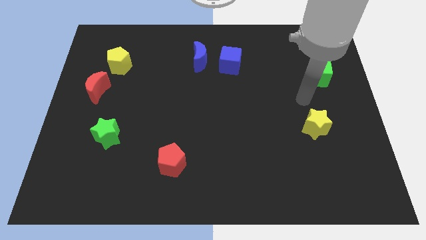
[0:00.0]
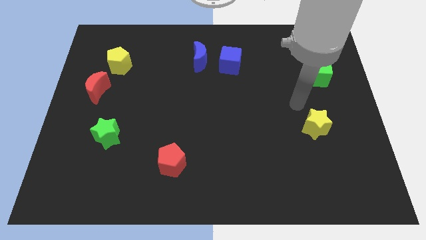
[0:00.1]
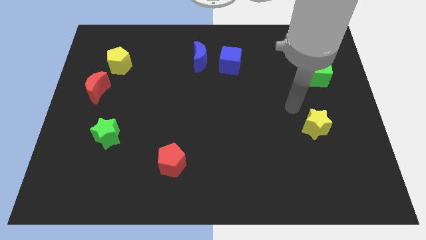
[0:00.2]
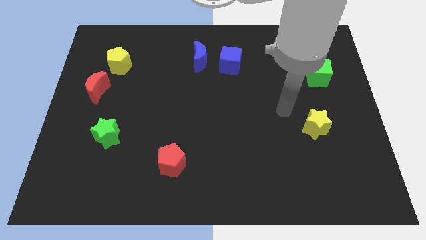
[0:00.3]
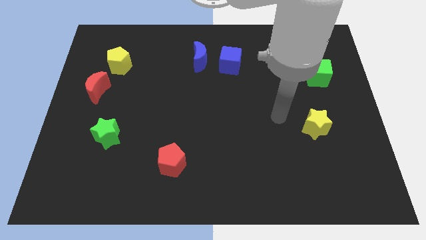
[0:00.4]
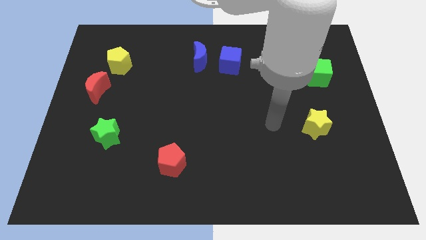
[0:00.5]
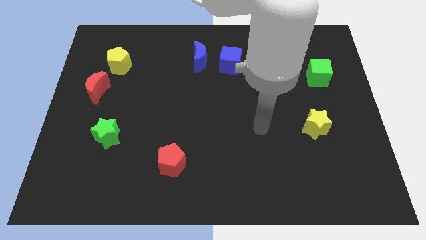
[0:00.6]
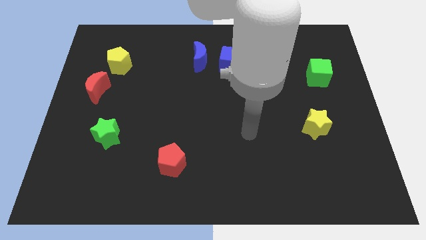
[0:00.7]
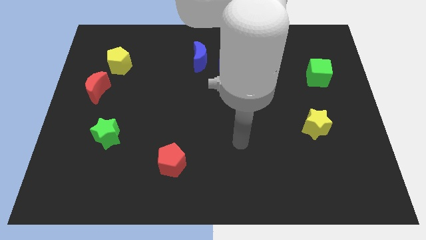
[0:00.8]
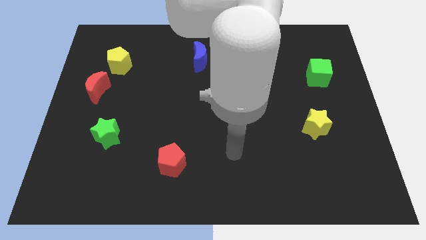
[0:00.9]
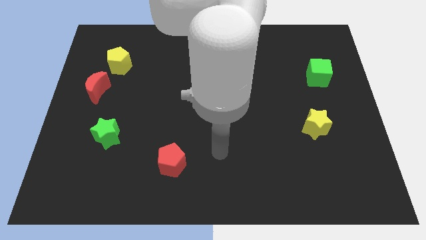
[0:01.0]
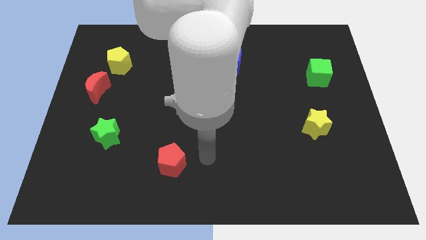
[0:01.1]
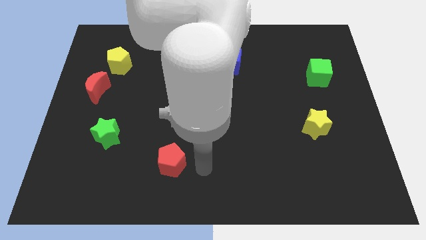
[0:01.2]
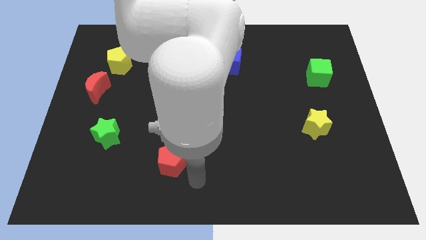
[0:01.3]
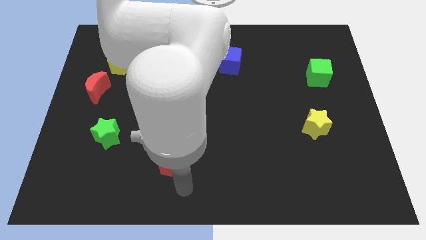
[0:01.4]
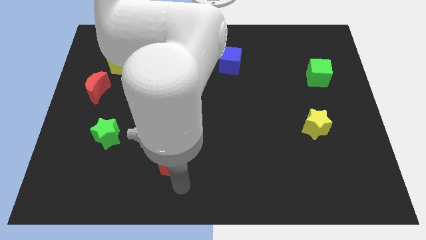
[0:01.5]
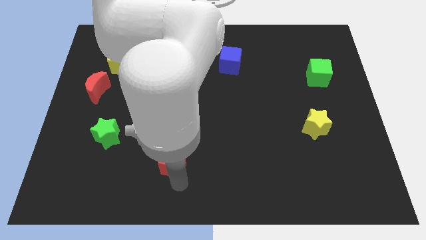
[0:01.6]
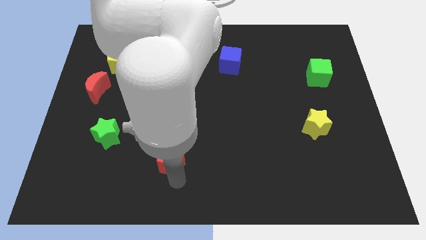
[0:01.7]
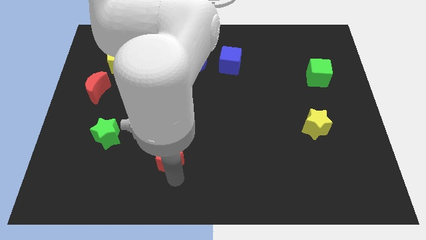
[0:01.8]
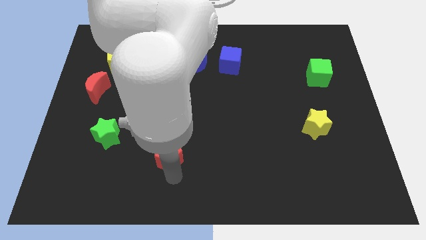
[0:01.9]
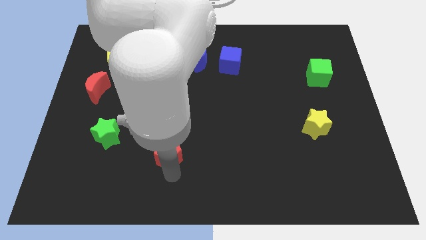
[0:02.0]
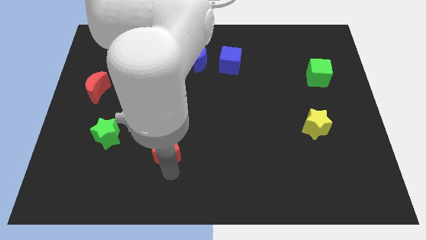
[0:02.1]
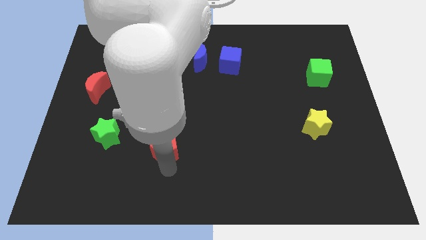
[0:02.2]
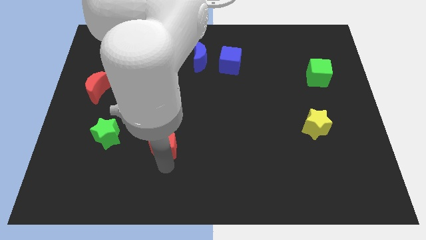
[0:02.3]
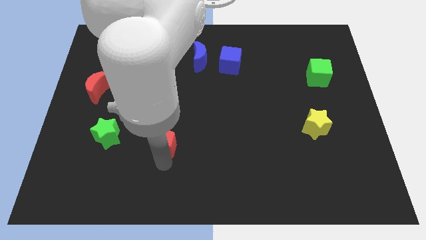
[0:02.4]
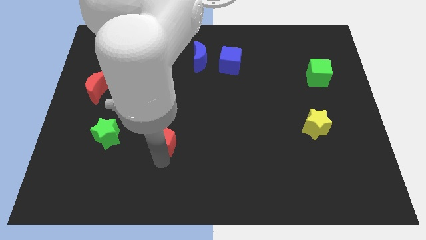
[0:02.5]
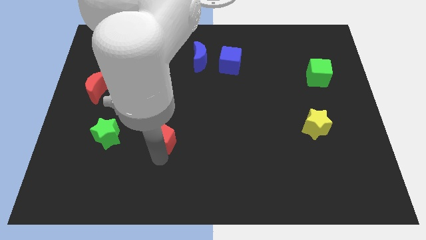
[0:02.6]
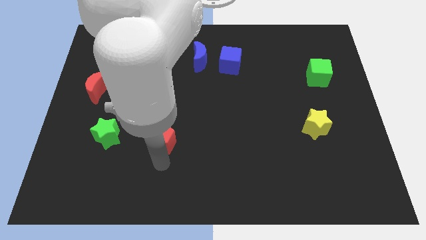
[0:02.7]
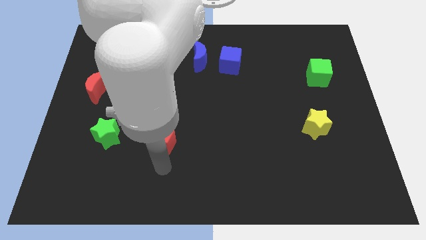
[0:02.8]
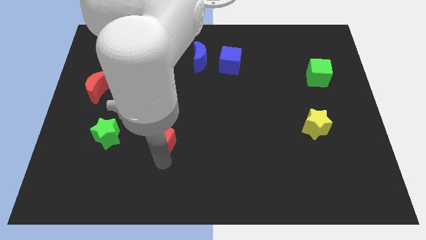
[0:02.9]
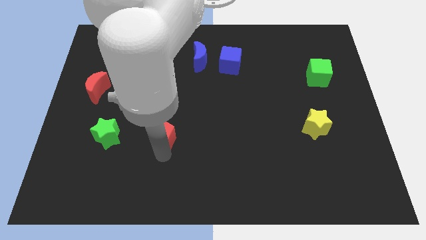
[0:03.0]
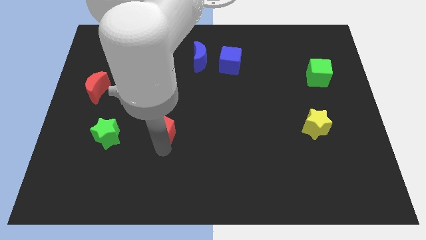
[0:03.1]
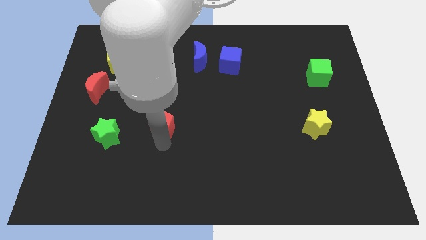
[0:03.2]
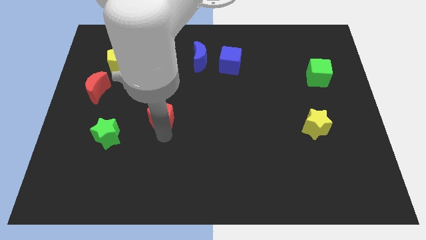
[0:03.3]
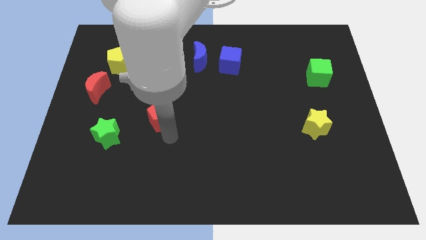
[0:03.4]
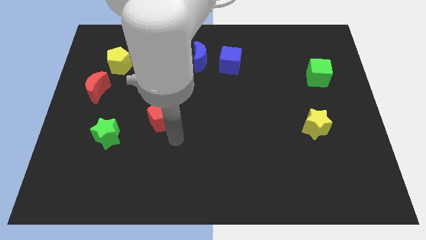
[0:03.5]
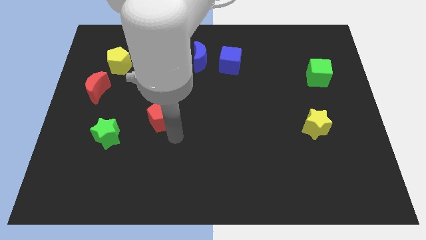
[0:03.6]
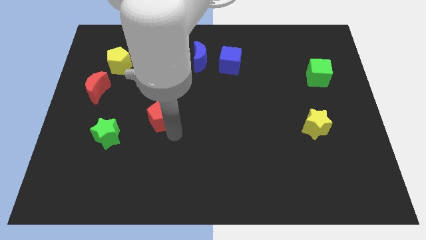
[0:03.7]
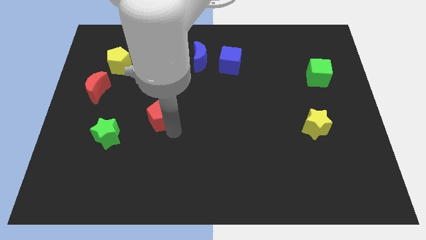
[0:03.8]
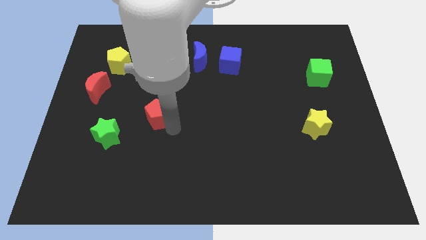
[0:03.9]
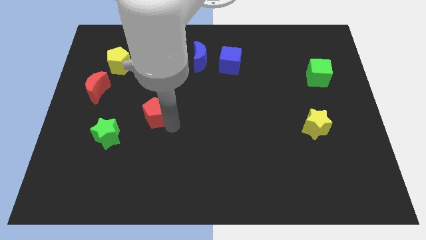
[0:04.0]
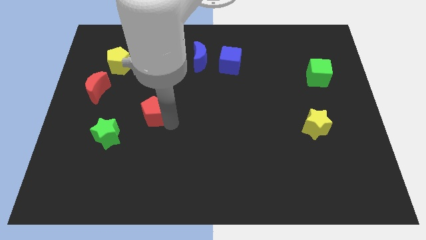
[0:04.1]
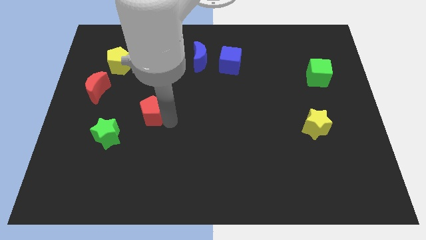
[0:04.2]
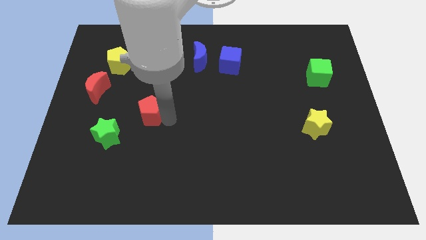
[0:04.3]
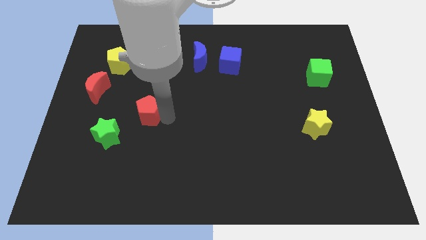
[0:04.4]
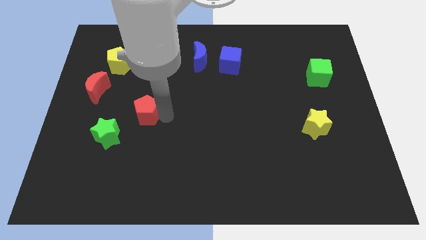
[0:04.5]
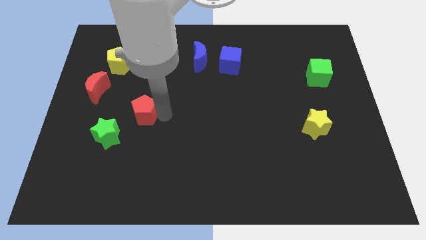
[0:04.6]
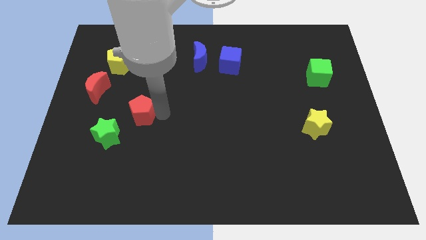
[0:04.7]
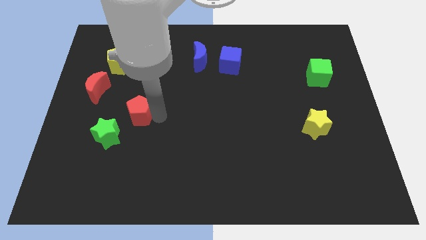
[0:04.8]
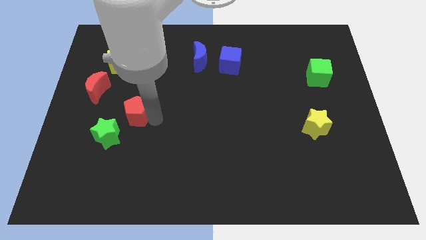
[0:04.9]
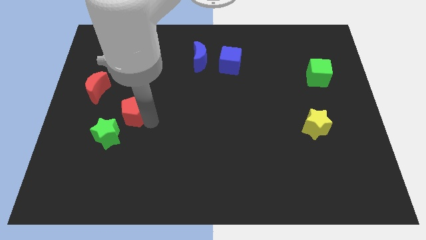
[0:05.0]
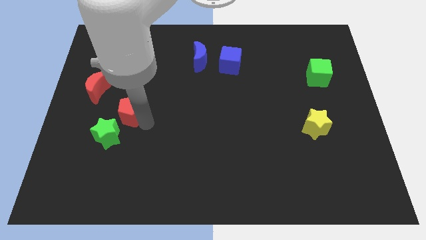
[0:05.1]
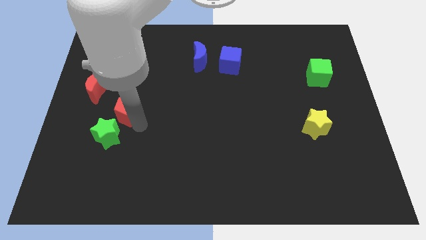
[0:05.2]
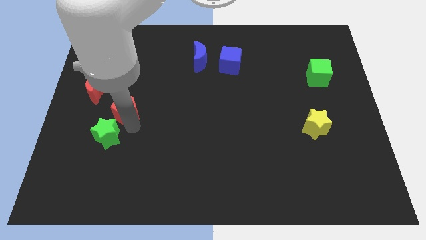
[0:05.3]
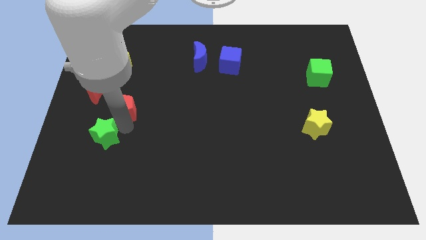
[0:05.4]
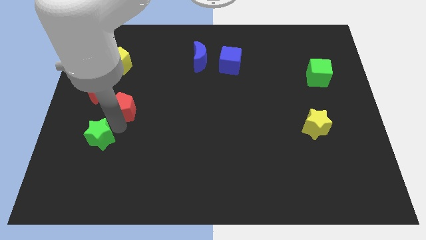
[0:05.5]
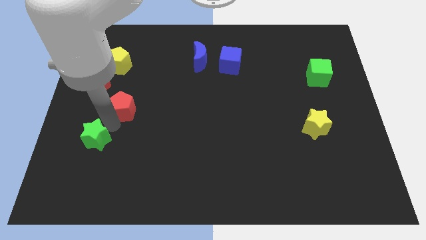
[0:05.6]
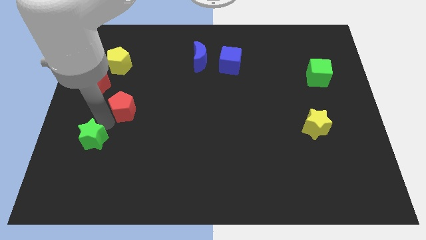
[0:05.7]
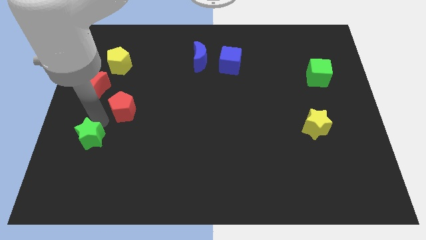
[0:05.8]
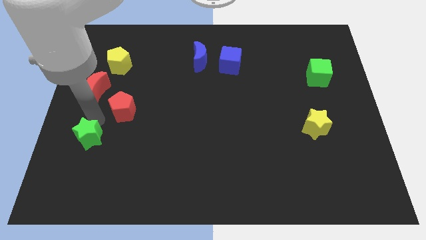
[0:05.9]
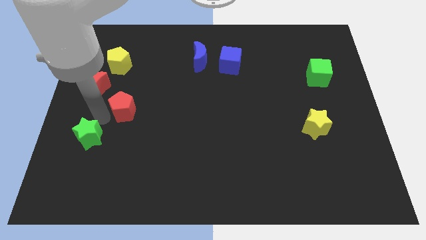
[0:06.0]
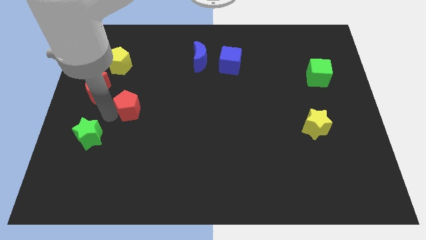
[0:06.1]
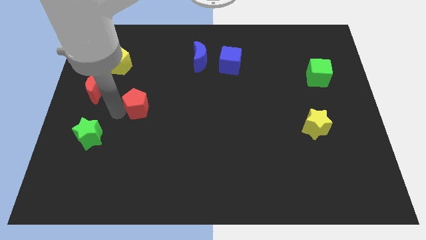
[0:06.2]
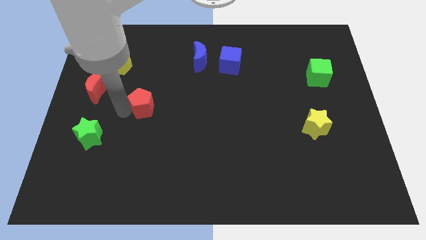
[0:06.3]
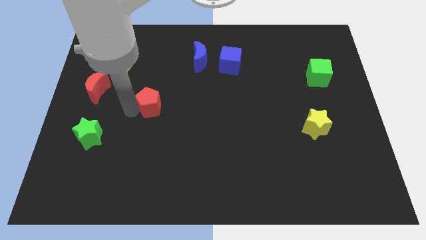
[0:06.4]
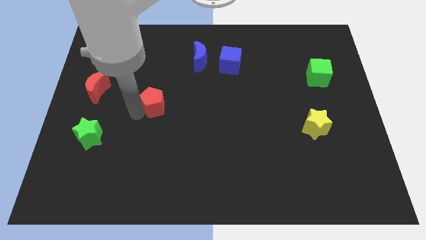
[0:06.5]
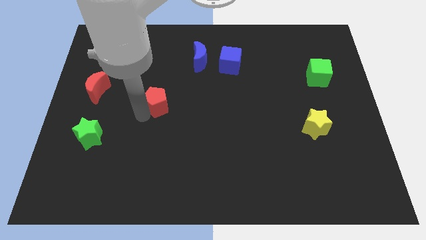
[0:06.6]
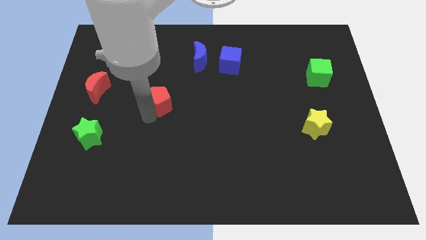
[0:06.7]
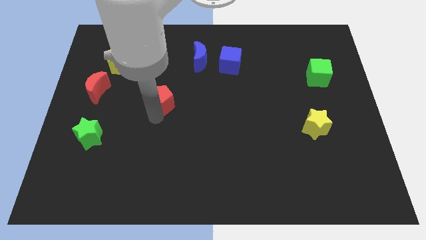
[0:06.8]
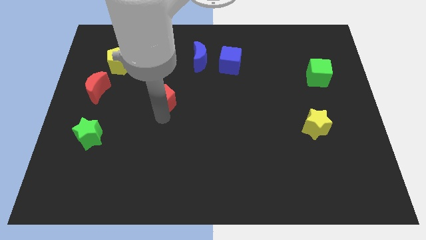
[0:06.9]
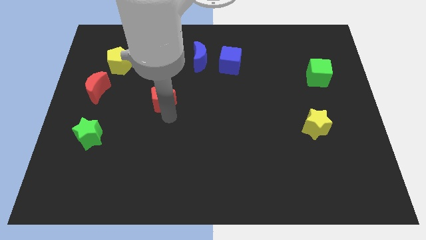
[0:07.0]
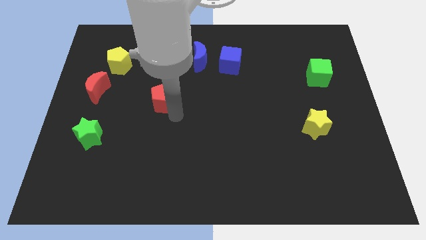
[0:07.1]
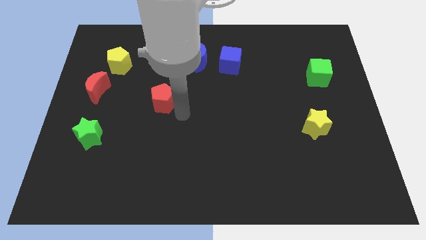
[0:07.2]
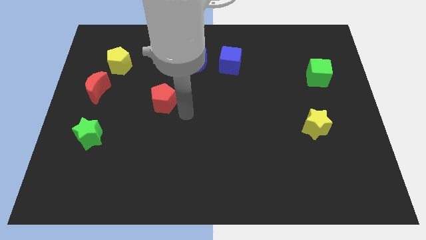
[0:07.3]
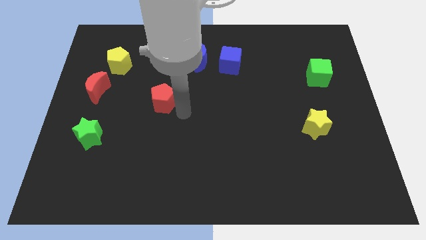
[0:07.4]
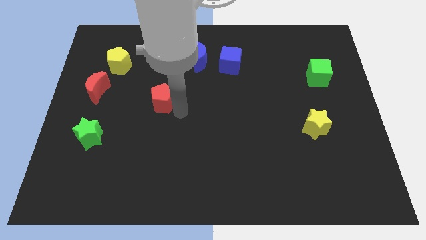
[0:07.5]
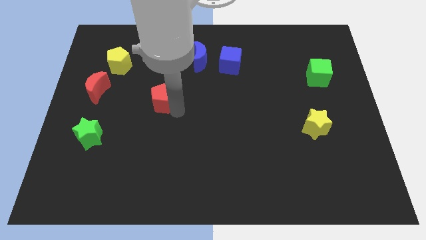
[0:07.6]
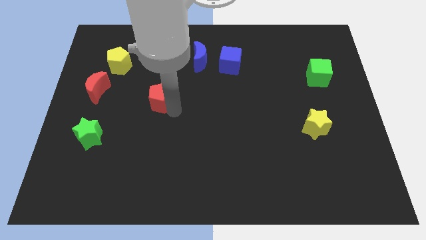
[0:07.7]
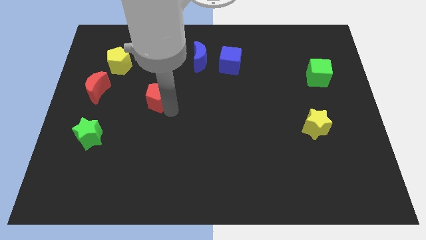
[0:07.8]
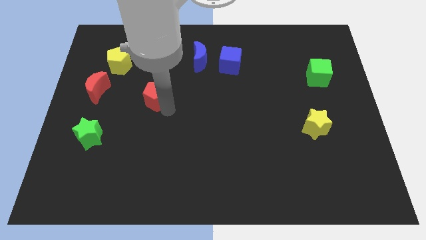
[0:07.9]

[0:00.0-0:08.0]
put the red pentagon to the right side of the red moon
